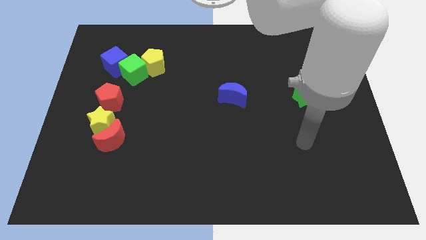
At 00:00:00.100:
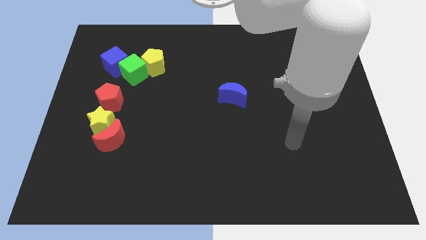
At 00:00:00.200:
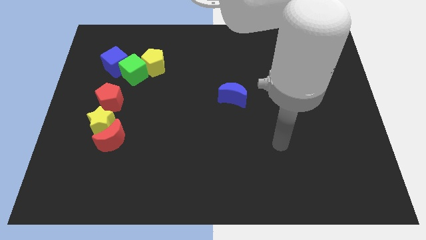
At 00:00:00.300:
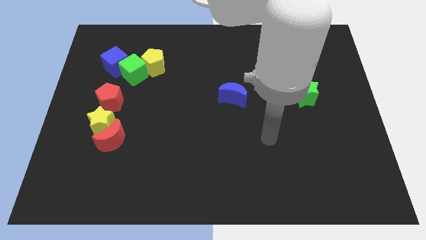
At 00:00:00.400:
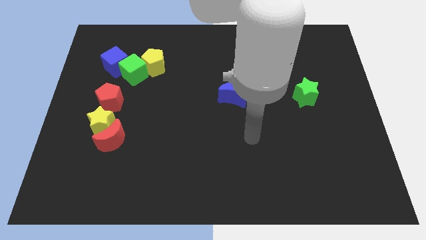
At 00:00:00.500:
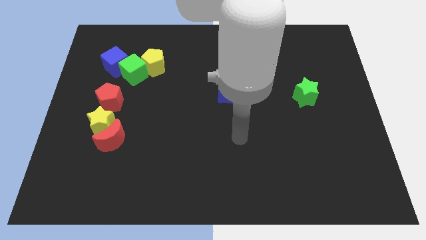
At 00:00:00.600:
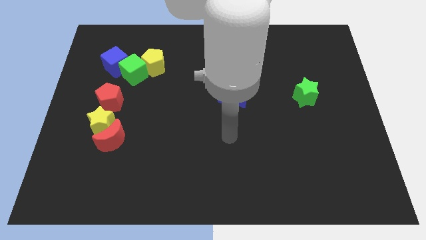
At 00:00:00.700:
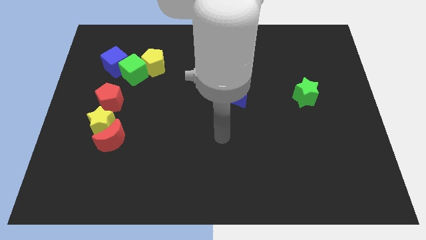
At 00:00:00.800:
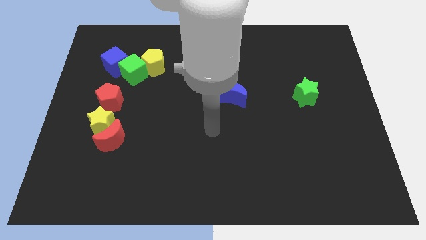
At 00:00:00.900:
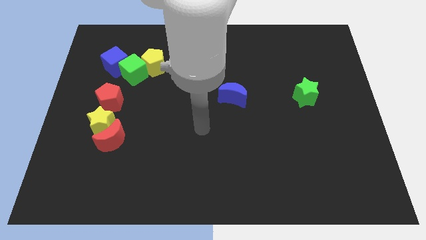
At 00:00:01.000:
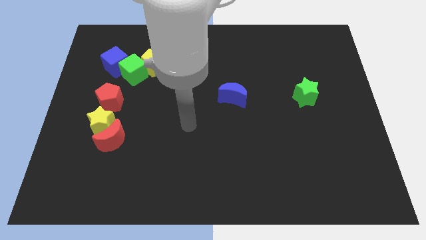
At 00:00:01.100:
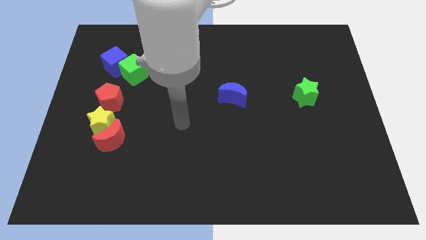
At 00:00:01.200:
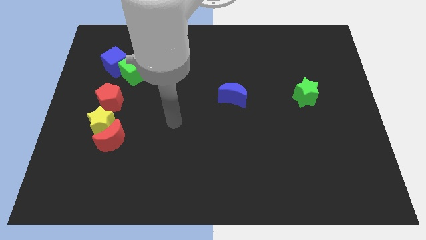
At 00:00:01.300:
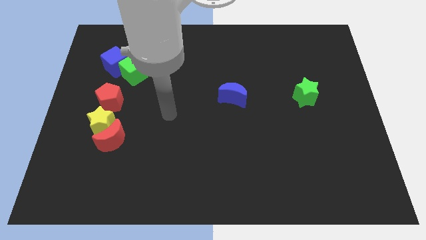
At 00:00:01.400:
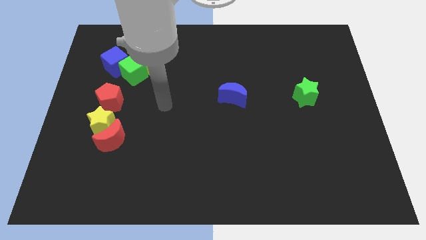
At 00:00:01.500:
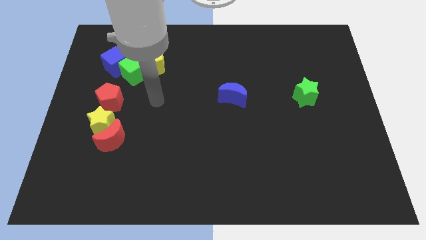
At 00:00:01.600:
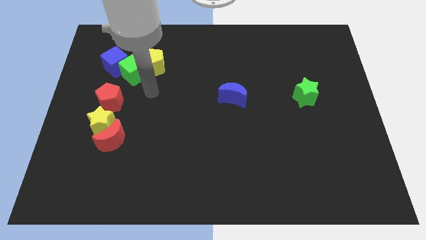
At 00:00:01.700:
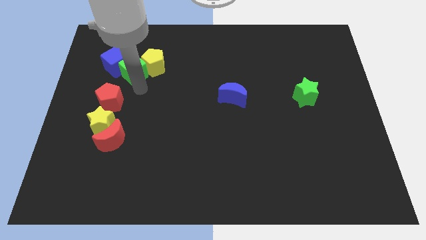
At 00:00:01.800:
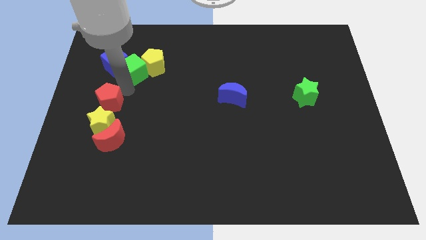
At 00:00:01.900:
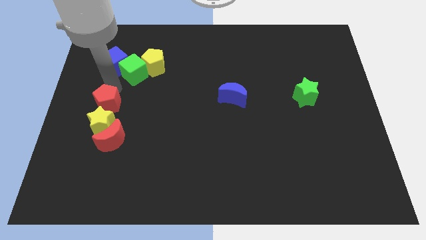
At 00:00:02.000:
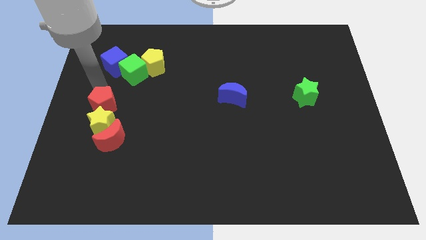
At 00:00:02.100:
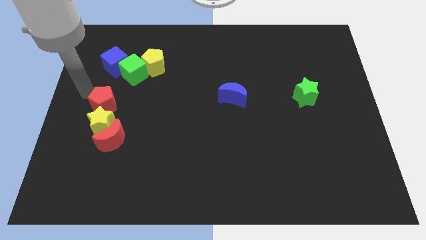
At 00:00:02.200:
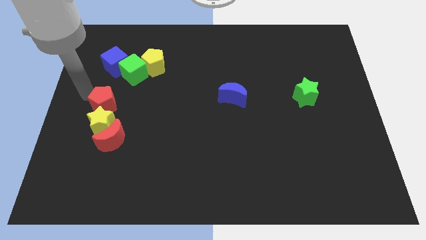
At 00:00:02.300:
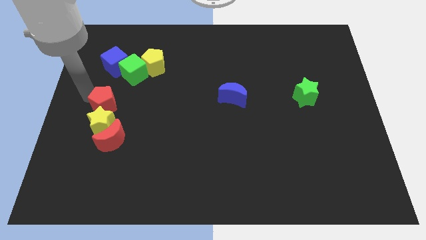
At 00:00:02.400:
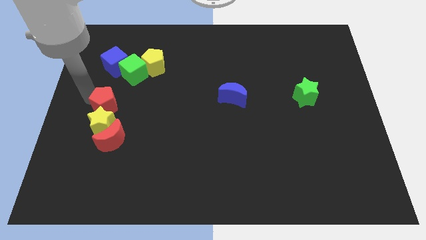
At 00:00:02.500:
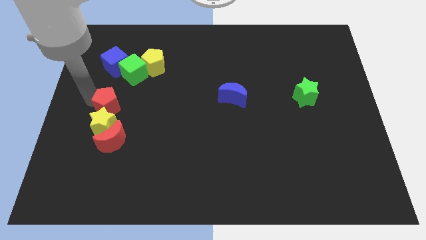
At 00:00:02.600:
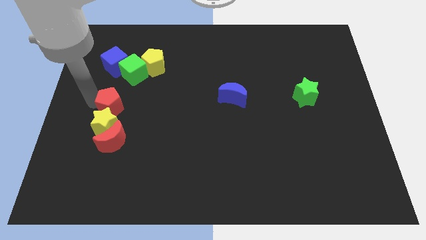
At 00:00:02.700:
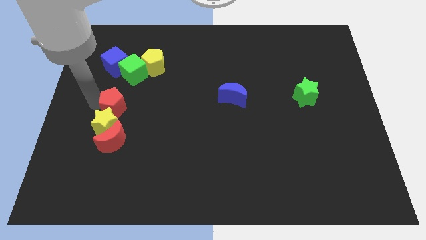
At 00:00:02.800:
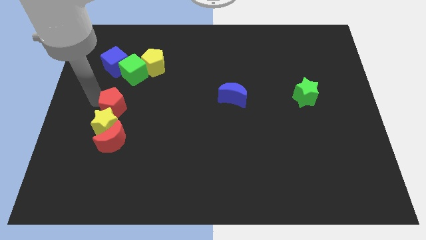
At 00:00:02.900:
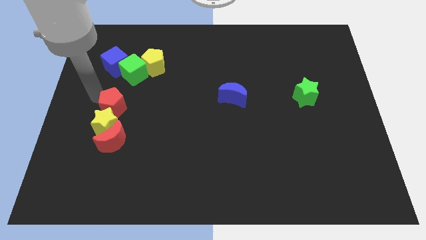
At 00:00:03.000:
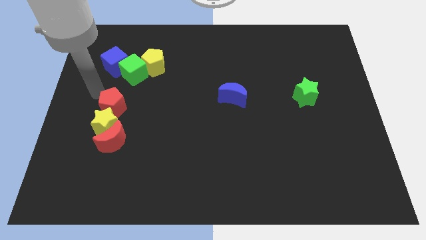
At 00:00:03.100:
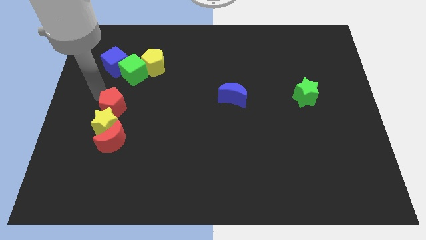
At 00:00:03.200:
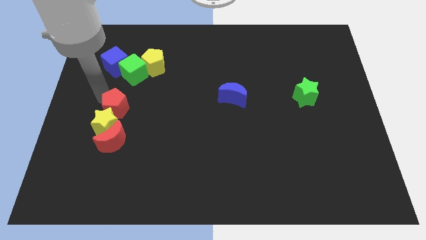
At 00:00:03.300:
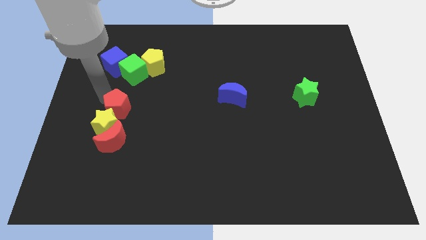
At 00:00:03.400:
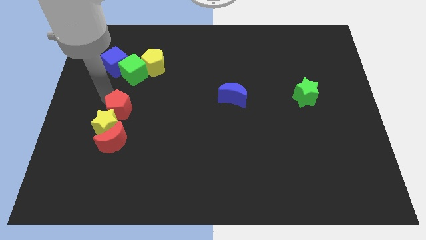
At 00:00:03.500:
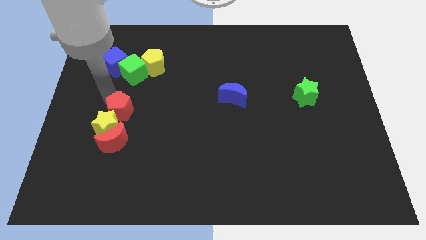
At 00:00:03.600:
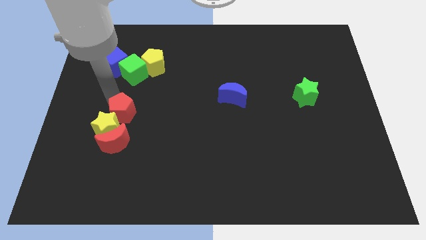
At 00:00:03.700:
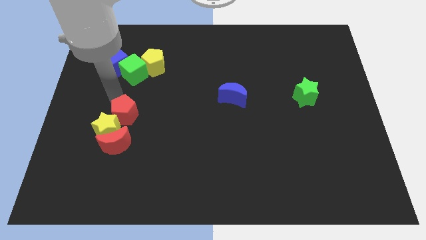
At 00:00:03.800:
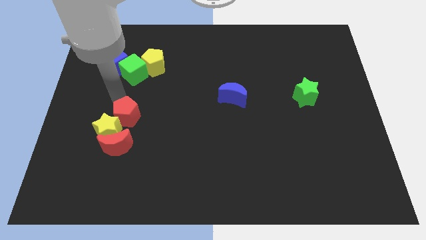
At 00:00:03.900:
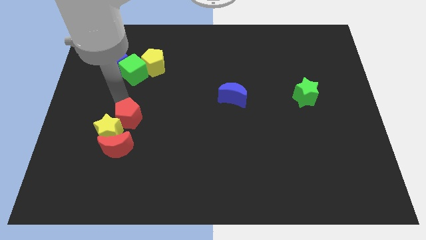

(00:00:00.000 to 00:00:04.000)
move the red pentagon down and to the right a little

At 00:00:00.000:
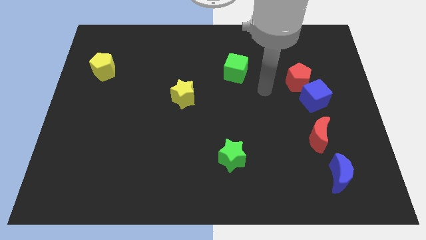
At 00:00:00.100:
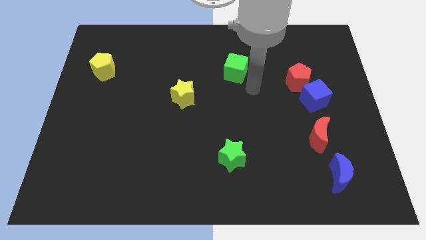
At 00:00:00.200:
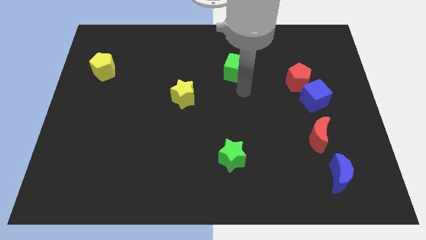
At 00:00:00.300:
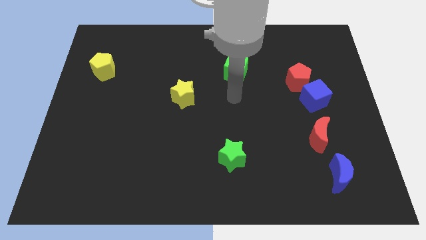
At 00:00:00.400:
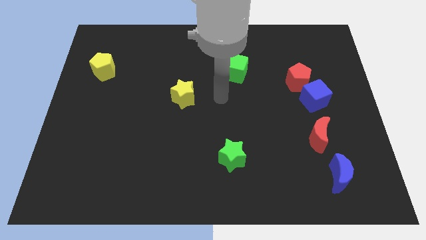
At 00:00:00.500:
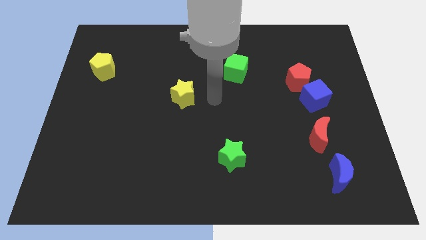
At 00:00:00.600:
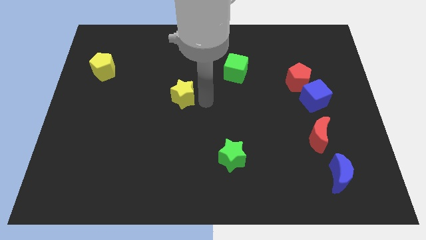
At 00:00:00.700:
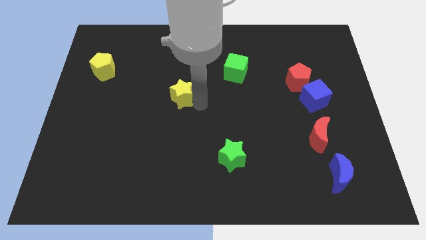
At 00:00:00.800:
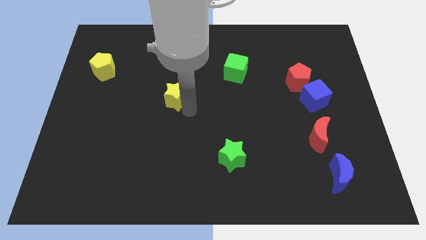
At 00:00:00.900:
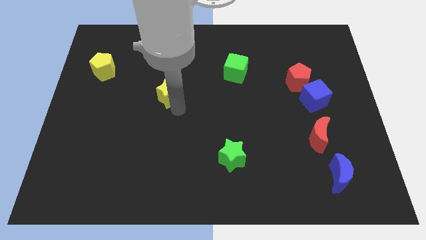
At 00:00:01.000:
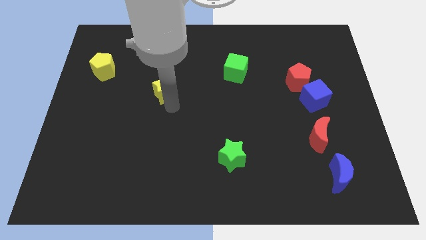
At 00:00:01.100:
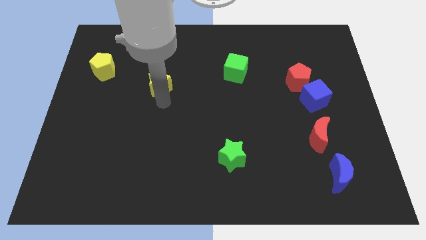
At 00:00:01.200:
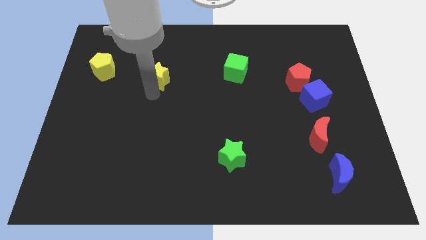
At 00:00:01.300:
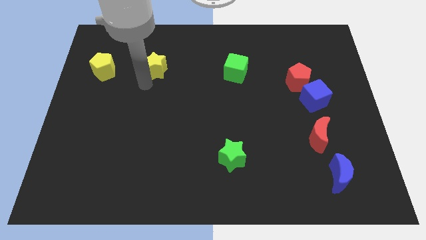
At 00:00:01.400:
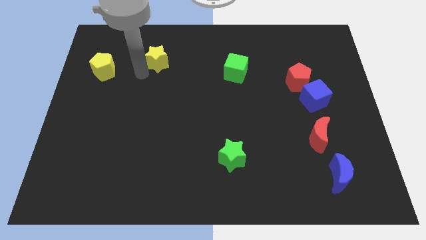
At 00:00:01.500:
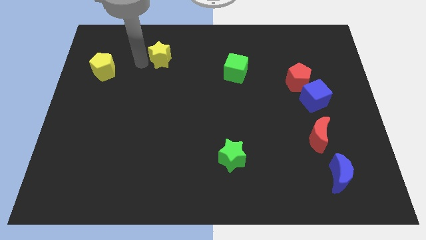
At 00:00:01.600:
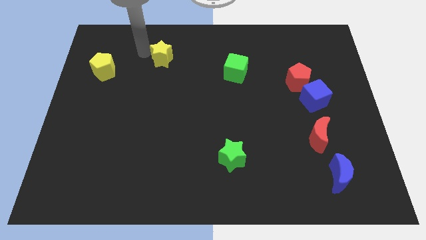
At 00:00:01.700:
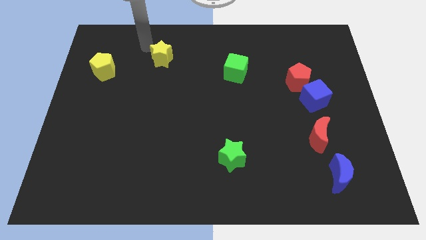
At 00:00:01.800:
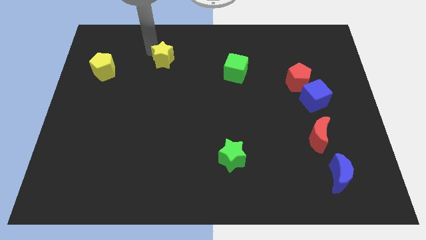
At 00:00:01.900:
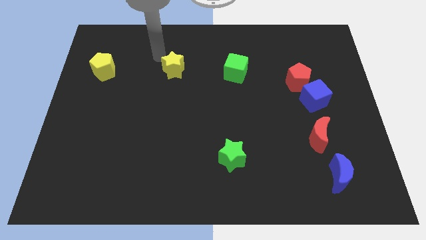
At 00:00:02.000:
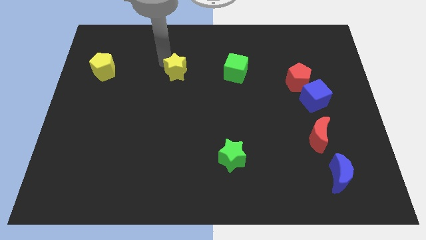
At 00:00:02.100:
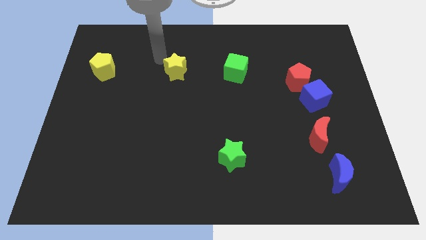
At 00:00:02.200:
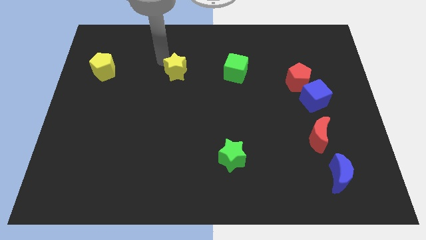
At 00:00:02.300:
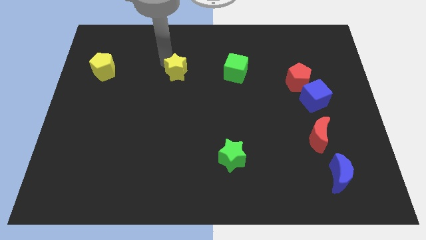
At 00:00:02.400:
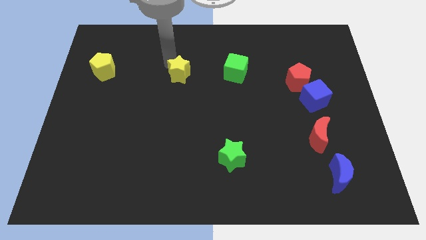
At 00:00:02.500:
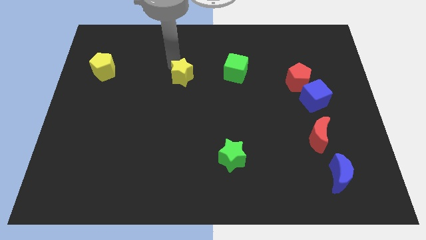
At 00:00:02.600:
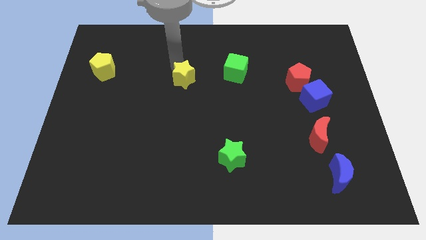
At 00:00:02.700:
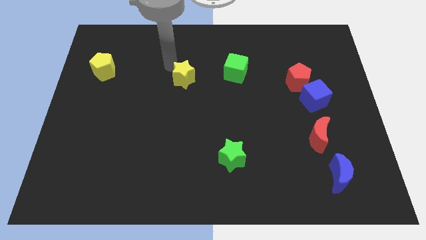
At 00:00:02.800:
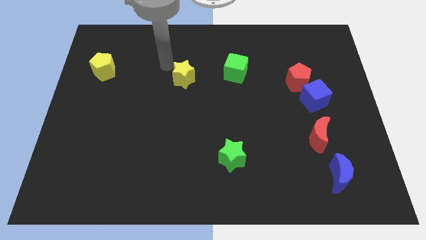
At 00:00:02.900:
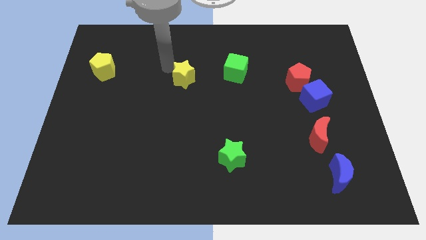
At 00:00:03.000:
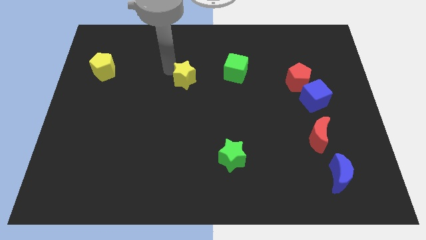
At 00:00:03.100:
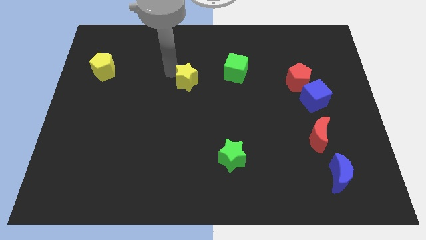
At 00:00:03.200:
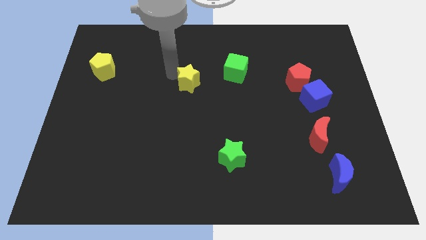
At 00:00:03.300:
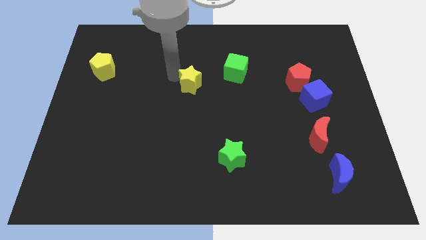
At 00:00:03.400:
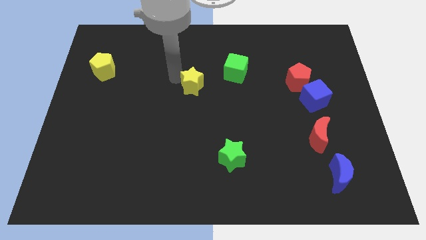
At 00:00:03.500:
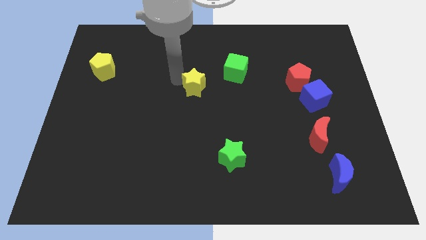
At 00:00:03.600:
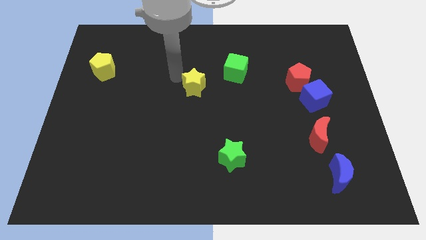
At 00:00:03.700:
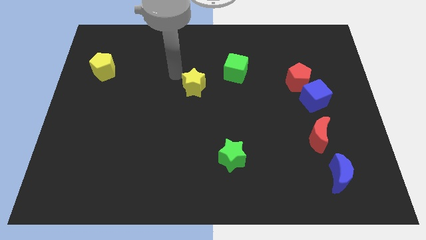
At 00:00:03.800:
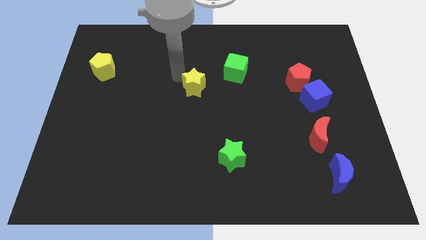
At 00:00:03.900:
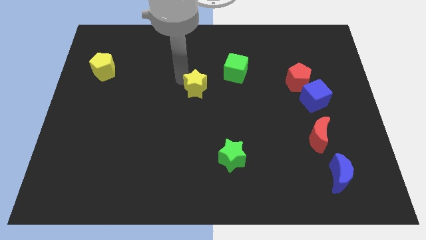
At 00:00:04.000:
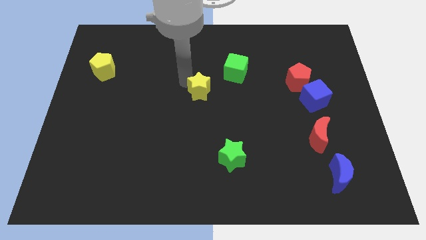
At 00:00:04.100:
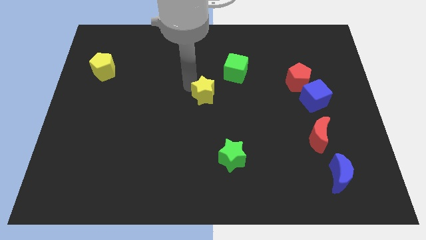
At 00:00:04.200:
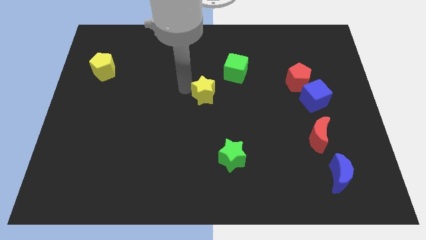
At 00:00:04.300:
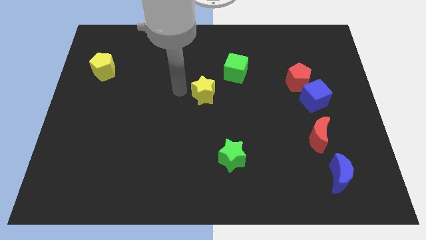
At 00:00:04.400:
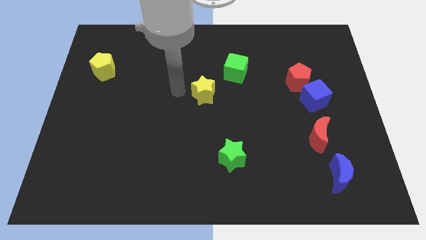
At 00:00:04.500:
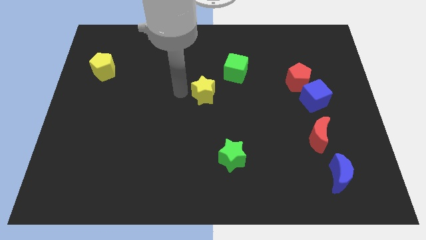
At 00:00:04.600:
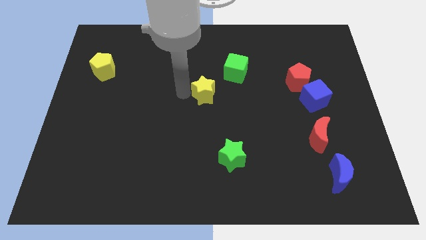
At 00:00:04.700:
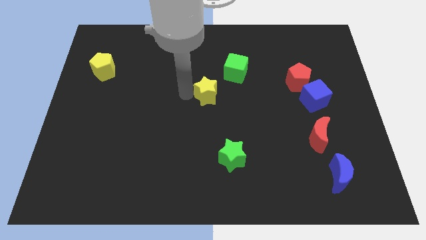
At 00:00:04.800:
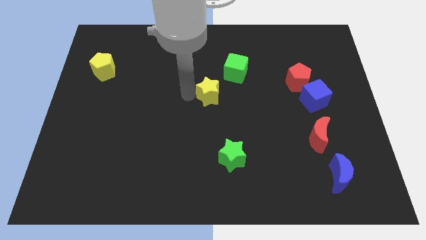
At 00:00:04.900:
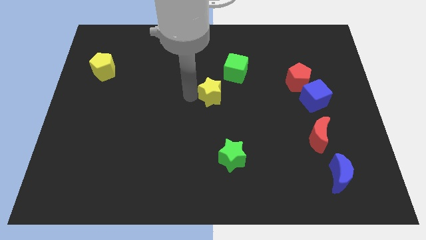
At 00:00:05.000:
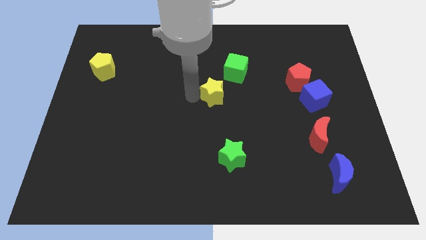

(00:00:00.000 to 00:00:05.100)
slightly push the yellow star to the right
